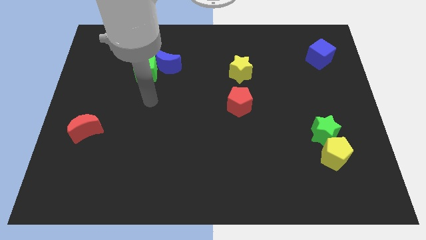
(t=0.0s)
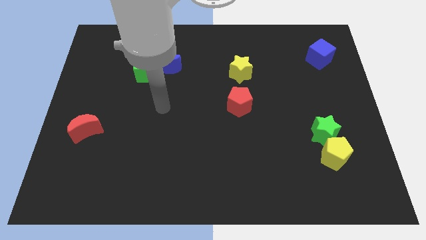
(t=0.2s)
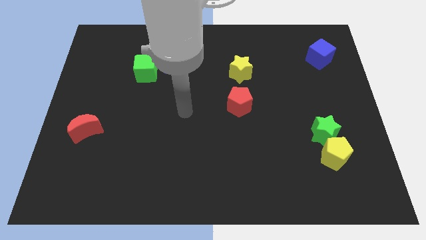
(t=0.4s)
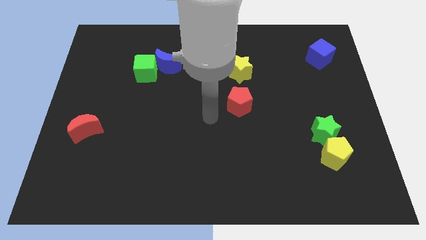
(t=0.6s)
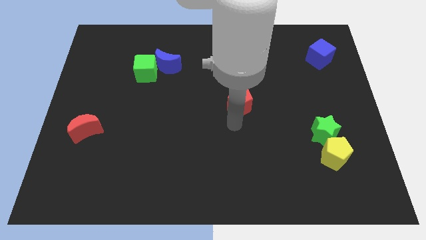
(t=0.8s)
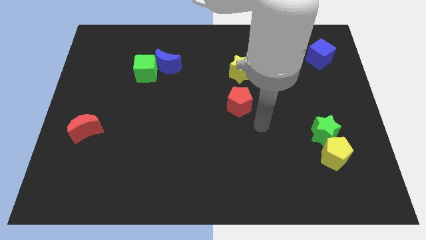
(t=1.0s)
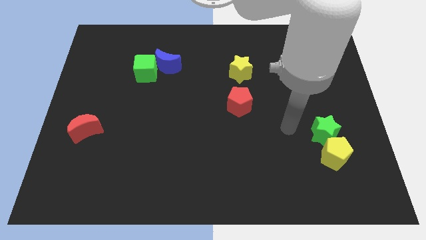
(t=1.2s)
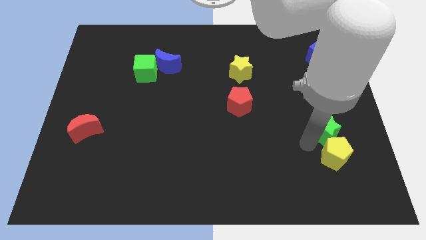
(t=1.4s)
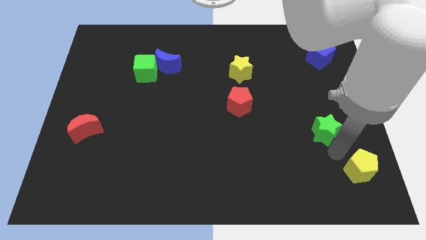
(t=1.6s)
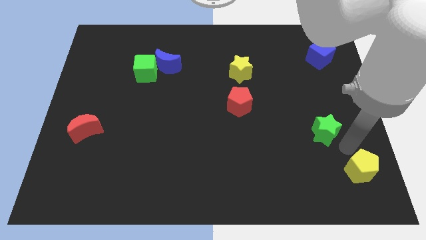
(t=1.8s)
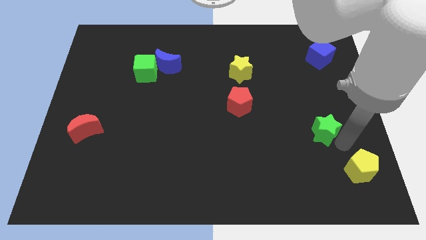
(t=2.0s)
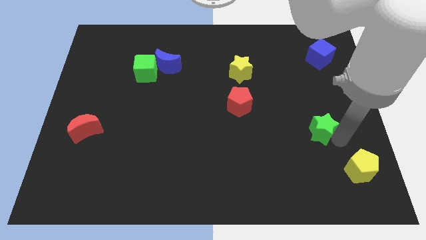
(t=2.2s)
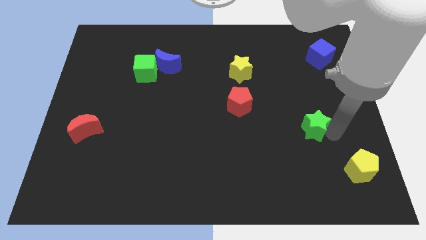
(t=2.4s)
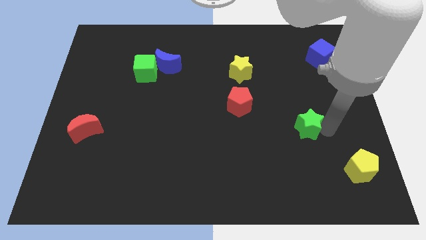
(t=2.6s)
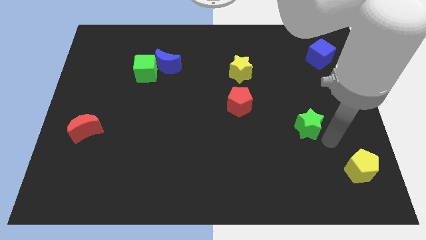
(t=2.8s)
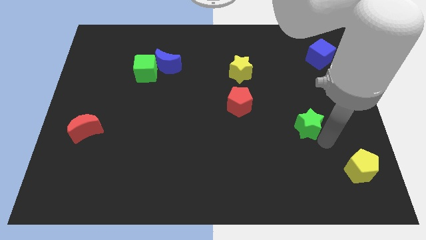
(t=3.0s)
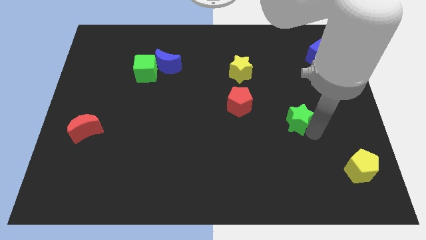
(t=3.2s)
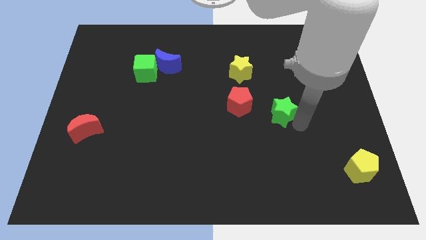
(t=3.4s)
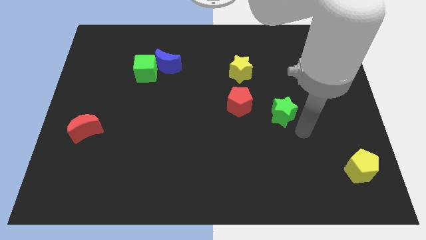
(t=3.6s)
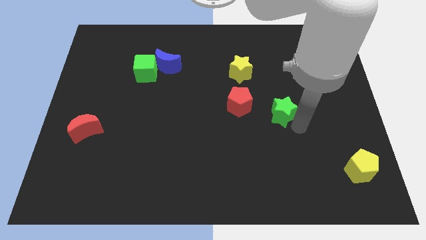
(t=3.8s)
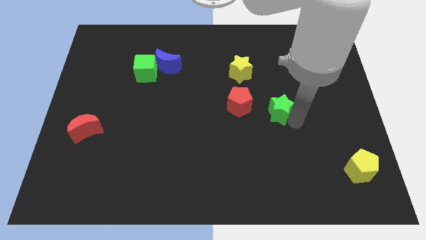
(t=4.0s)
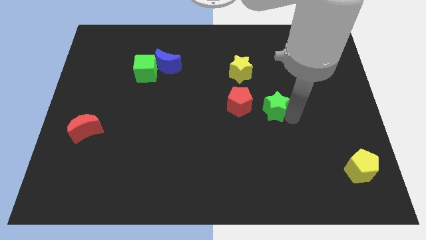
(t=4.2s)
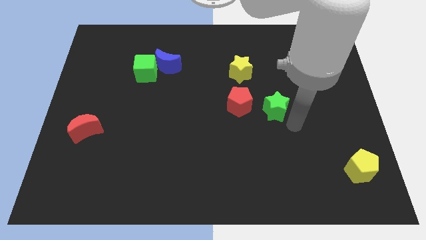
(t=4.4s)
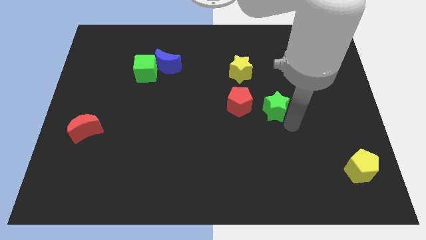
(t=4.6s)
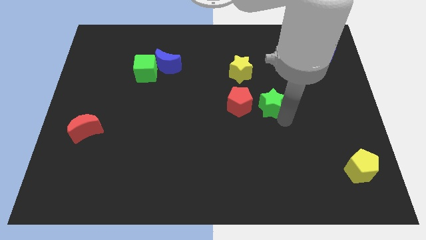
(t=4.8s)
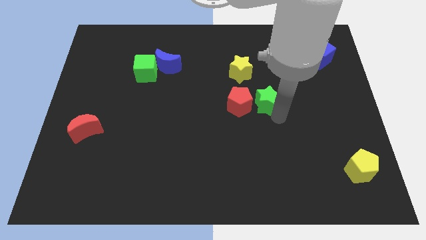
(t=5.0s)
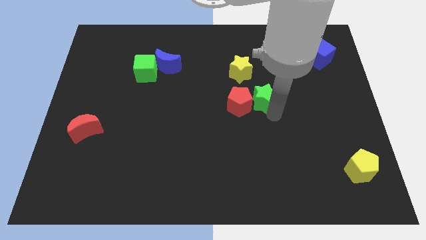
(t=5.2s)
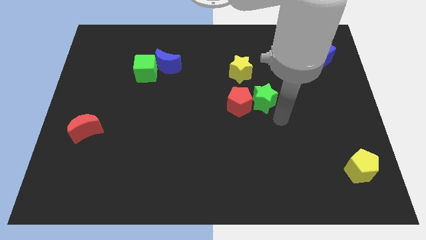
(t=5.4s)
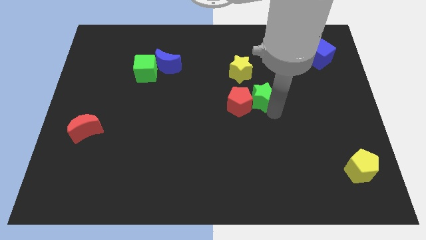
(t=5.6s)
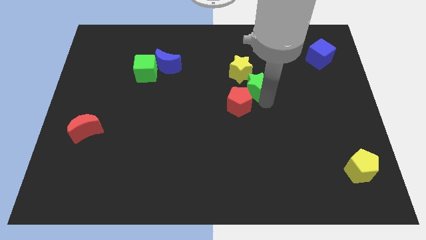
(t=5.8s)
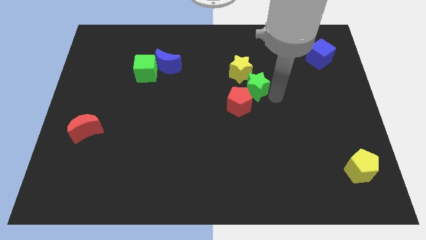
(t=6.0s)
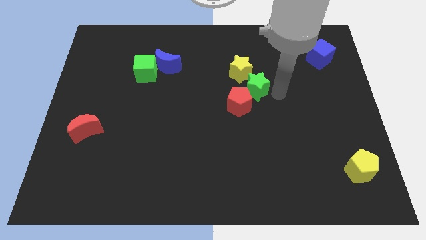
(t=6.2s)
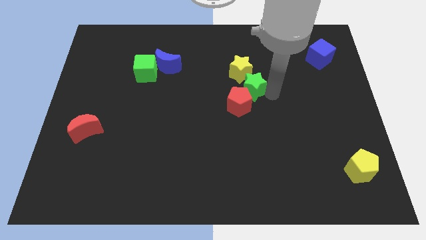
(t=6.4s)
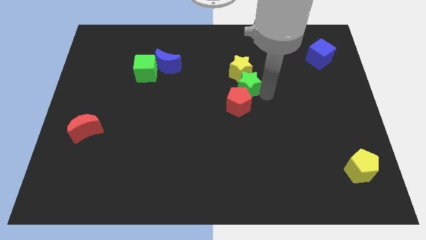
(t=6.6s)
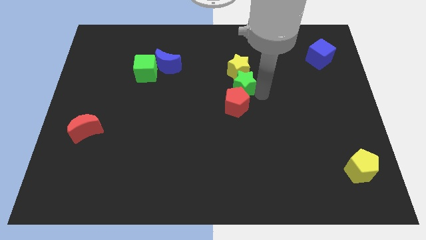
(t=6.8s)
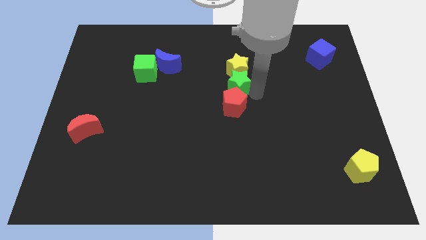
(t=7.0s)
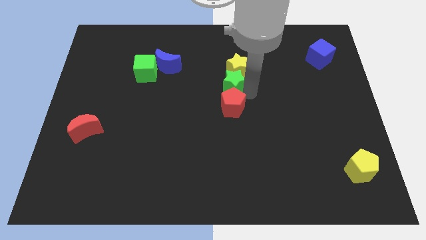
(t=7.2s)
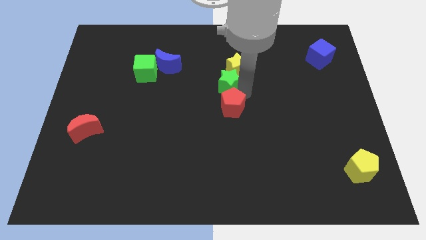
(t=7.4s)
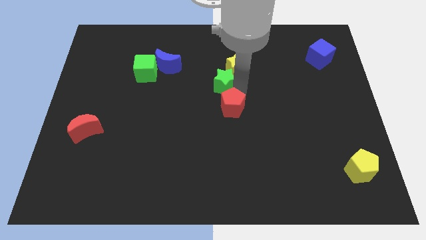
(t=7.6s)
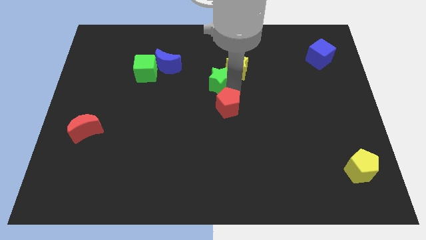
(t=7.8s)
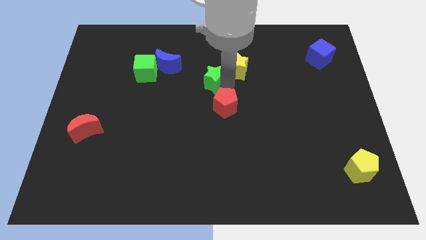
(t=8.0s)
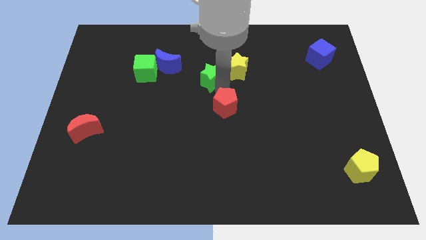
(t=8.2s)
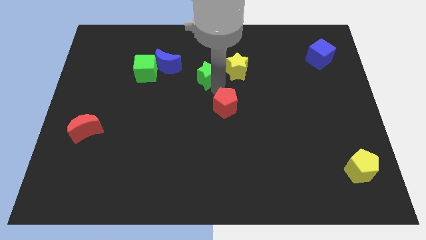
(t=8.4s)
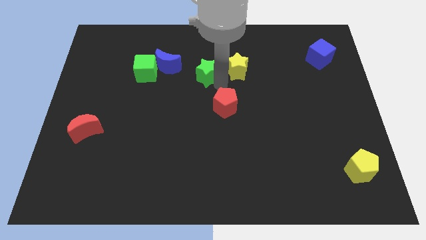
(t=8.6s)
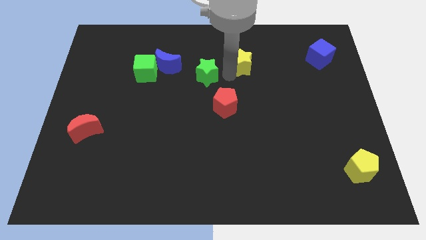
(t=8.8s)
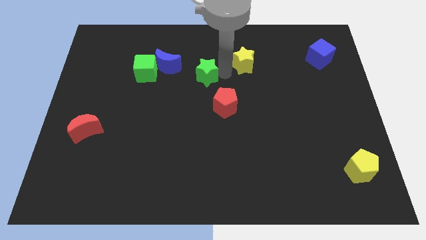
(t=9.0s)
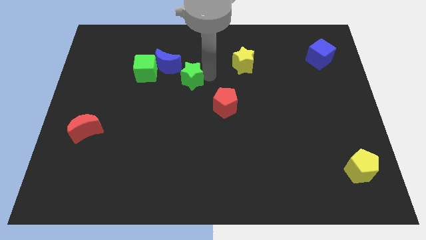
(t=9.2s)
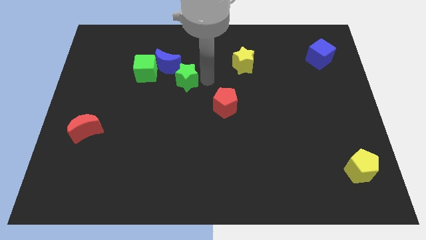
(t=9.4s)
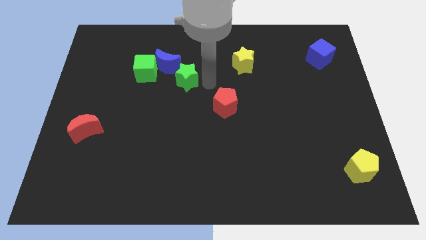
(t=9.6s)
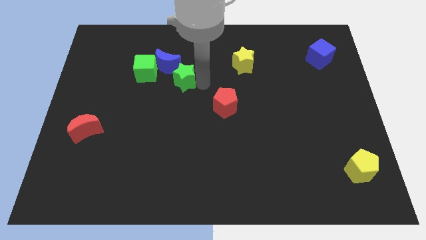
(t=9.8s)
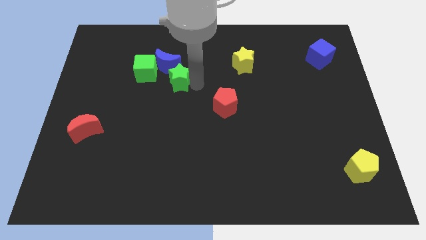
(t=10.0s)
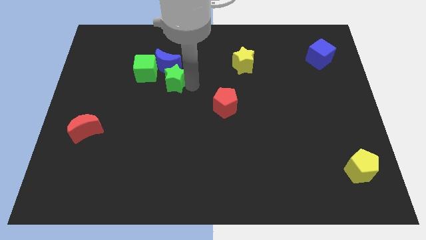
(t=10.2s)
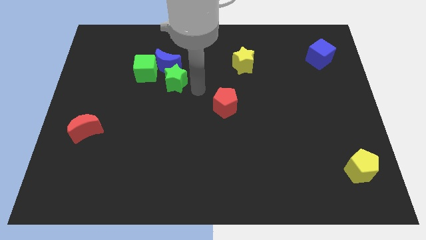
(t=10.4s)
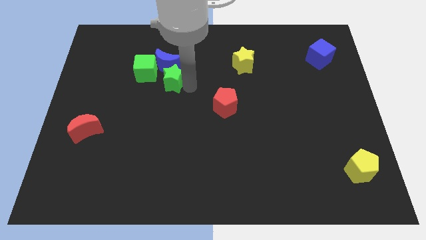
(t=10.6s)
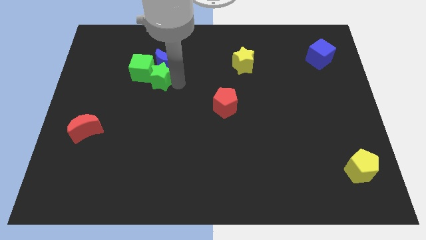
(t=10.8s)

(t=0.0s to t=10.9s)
move the green star close to the green cube

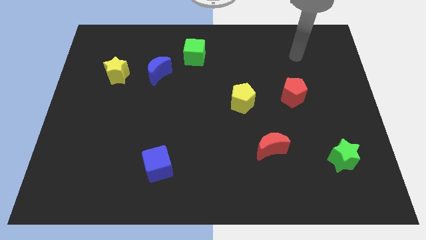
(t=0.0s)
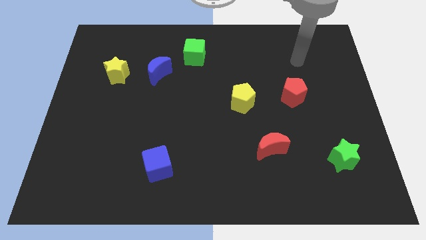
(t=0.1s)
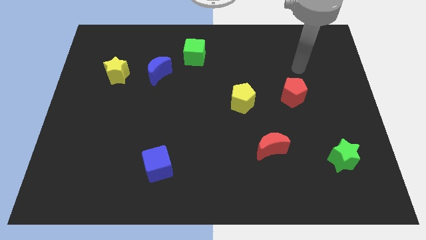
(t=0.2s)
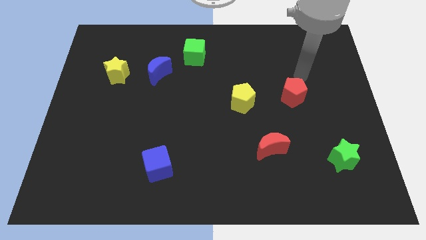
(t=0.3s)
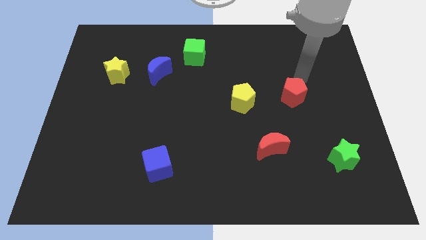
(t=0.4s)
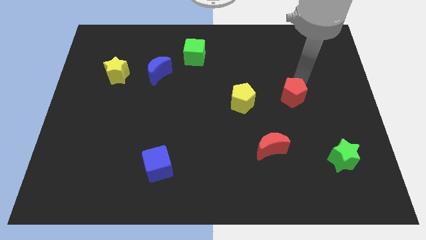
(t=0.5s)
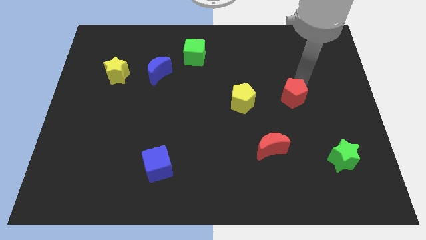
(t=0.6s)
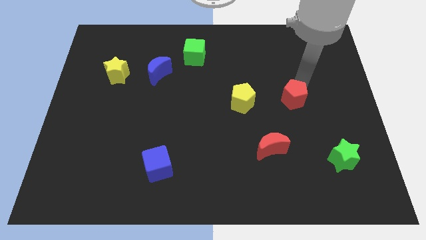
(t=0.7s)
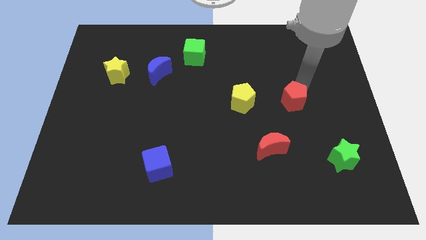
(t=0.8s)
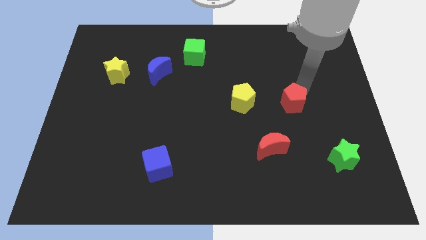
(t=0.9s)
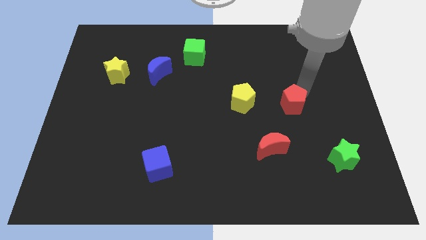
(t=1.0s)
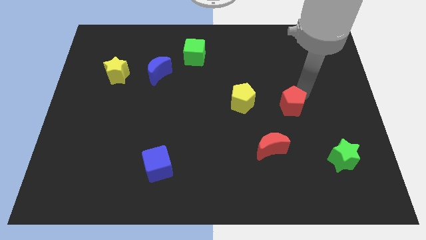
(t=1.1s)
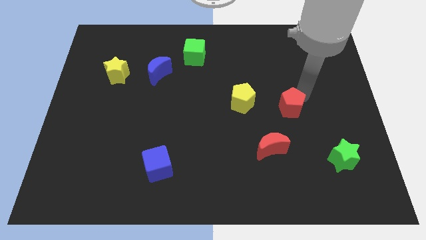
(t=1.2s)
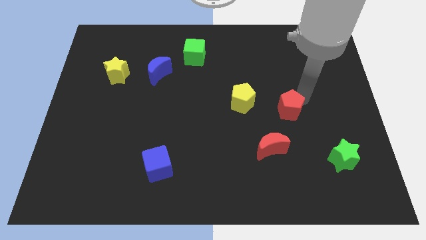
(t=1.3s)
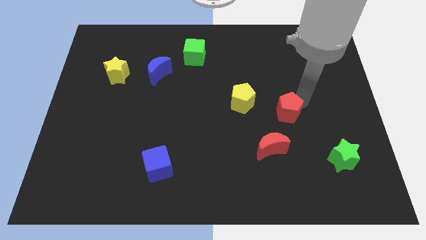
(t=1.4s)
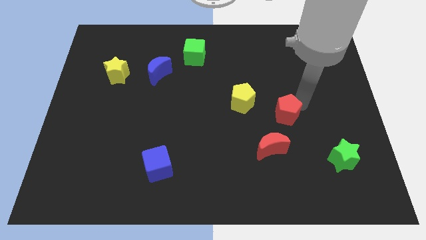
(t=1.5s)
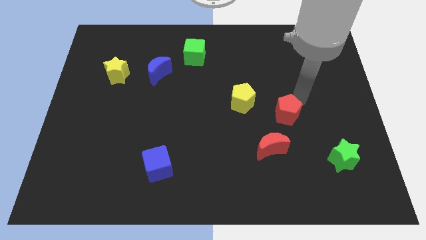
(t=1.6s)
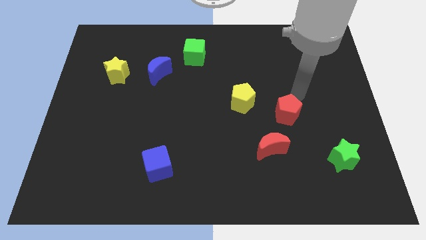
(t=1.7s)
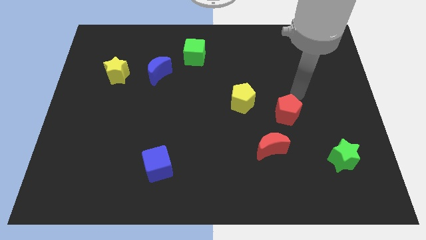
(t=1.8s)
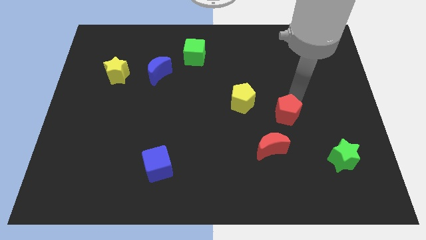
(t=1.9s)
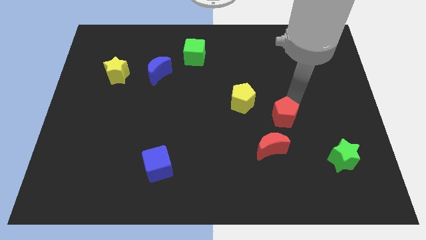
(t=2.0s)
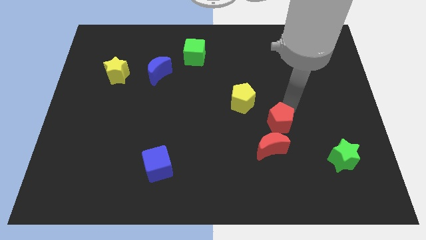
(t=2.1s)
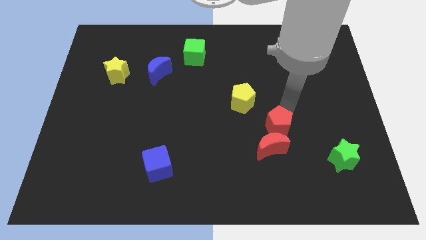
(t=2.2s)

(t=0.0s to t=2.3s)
slide the red pentagon to the red moon

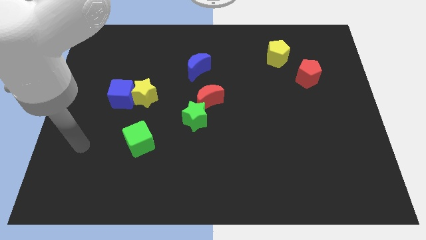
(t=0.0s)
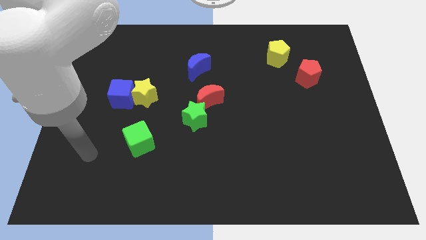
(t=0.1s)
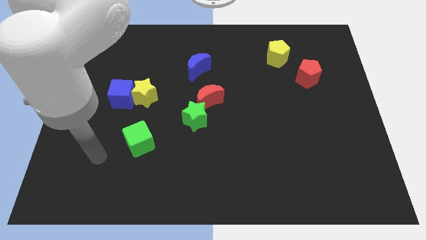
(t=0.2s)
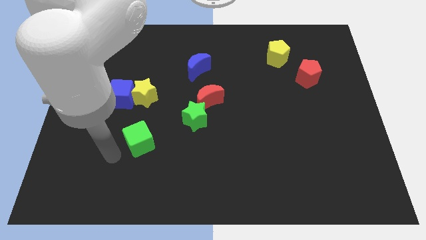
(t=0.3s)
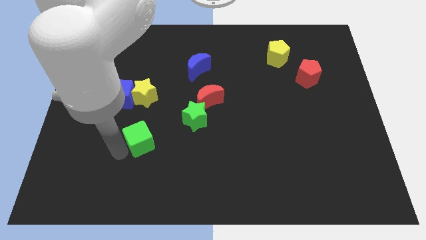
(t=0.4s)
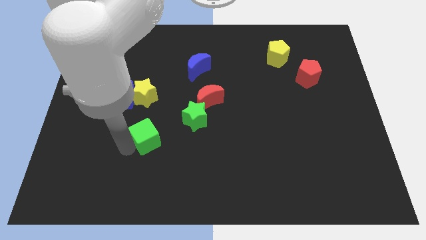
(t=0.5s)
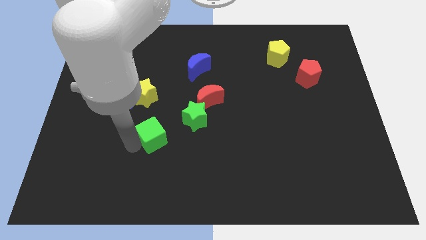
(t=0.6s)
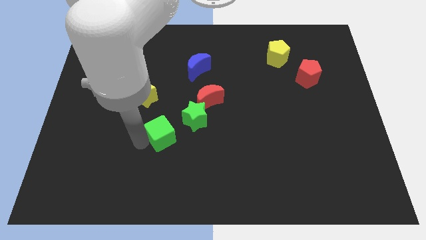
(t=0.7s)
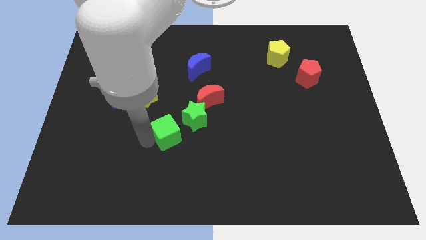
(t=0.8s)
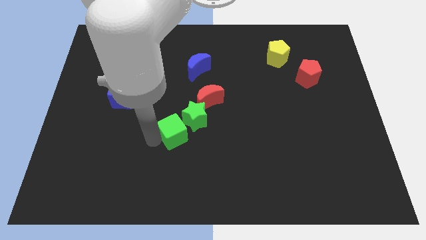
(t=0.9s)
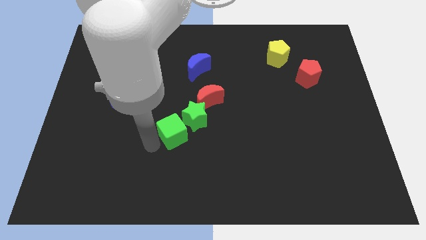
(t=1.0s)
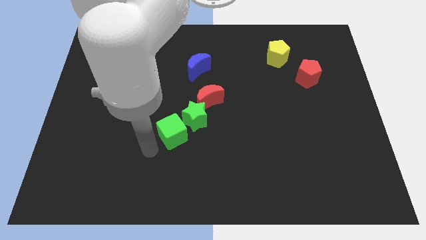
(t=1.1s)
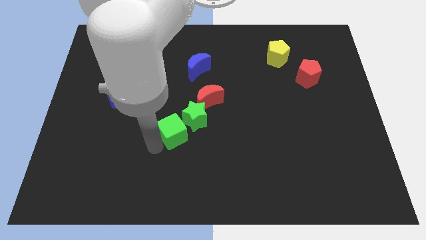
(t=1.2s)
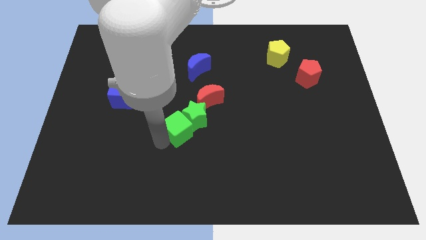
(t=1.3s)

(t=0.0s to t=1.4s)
put the green cube next to the green star
